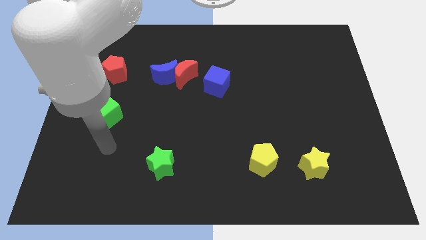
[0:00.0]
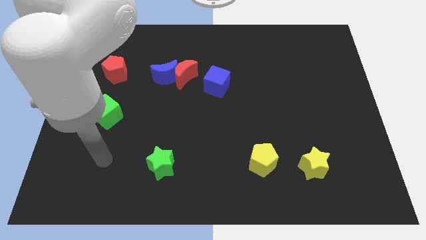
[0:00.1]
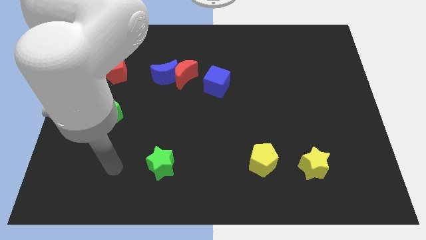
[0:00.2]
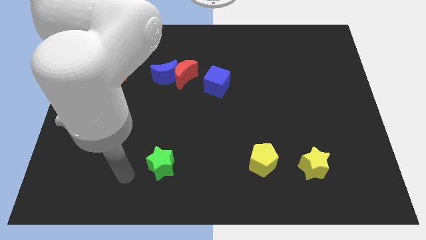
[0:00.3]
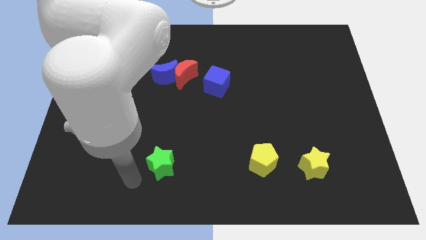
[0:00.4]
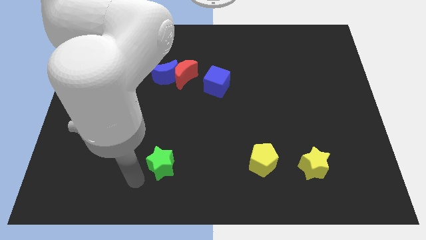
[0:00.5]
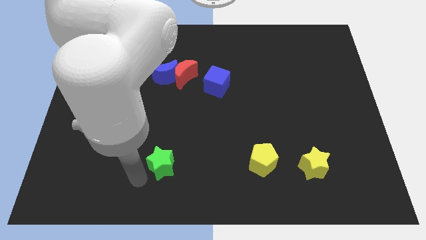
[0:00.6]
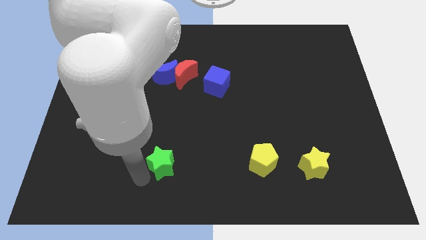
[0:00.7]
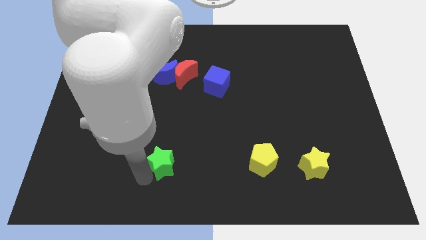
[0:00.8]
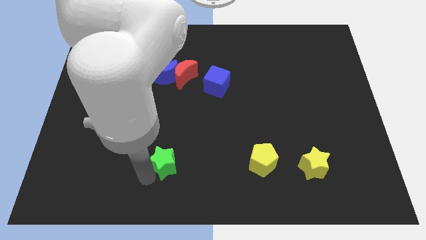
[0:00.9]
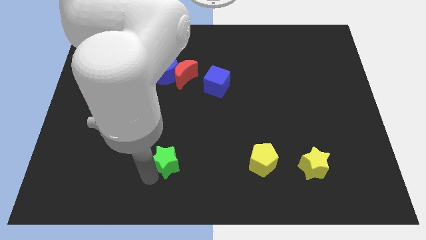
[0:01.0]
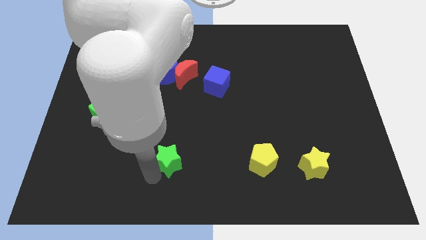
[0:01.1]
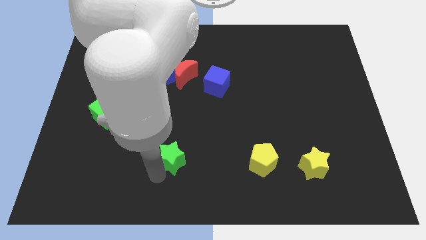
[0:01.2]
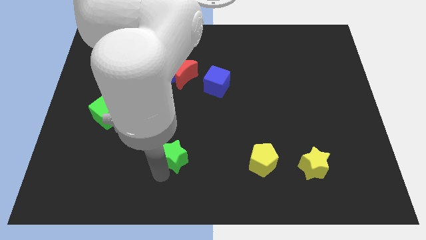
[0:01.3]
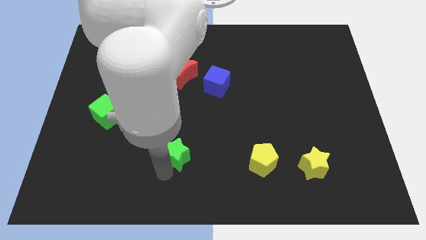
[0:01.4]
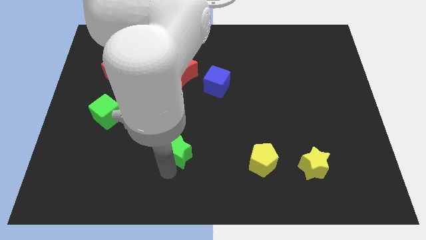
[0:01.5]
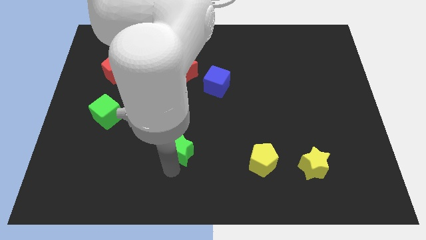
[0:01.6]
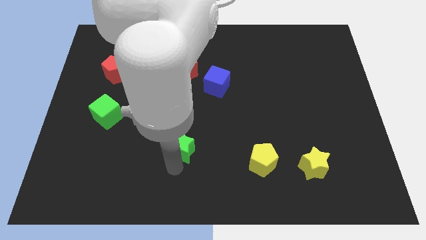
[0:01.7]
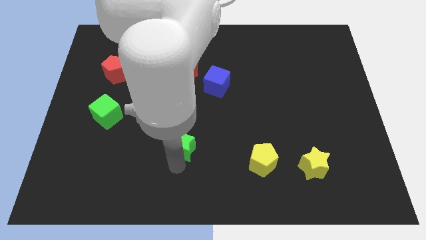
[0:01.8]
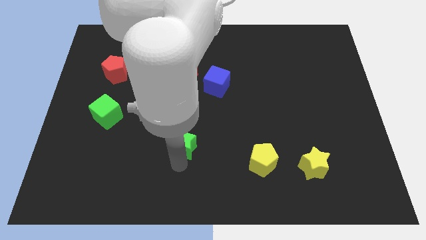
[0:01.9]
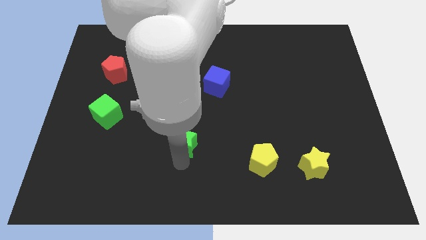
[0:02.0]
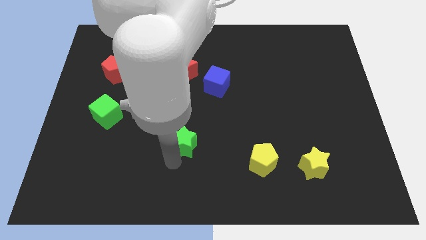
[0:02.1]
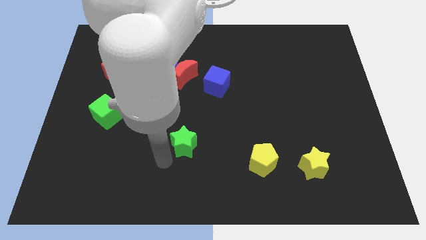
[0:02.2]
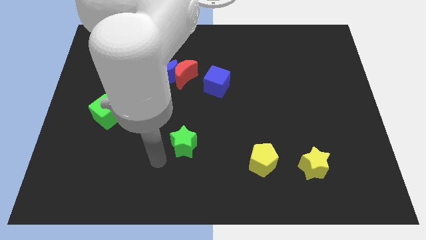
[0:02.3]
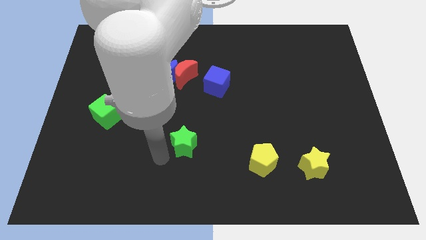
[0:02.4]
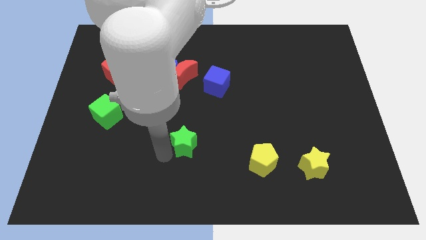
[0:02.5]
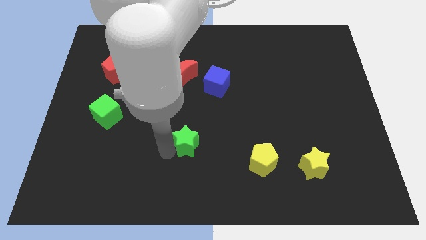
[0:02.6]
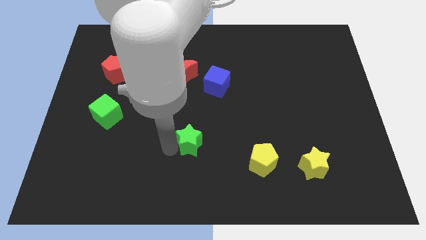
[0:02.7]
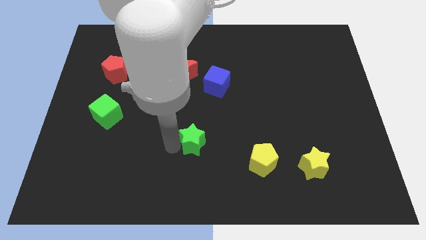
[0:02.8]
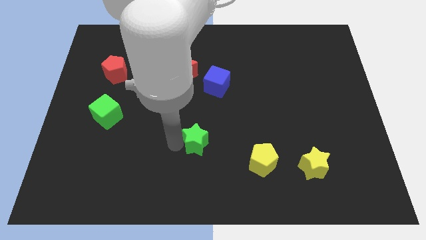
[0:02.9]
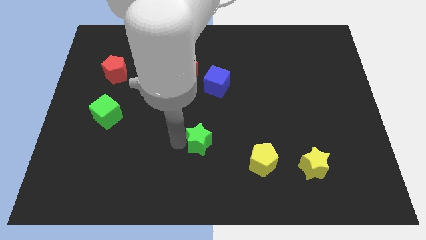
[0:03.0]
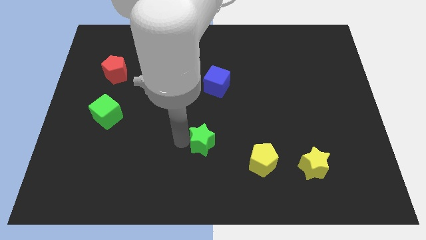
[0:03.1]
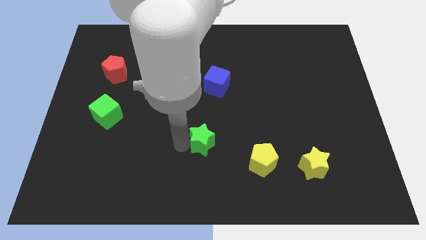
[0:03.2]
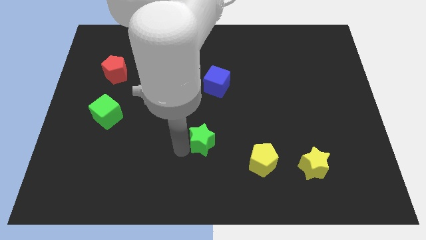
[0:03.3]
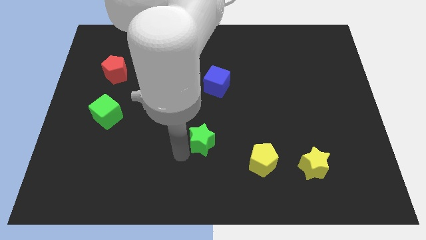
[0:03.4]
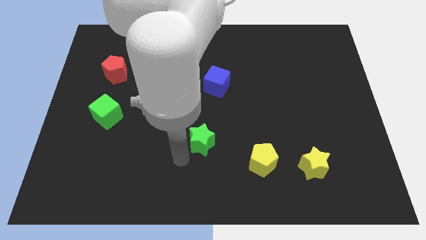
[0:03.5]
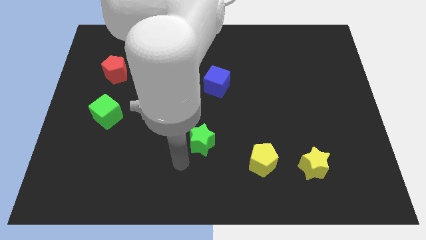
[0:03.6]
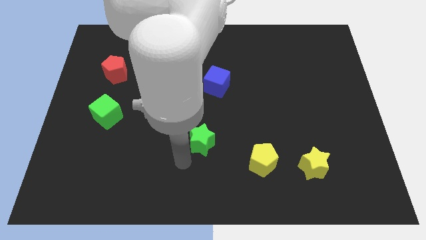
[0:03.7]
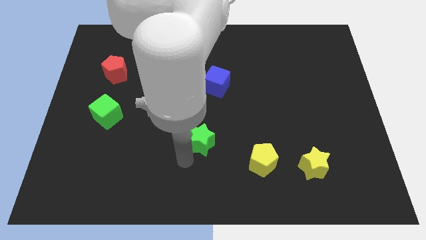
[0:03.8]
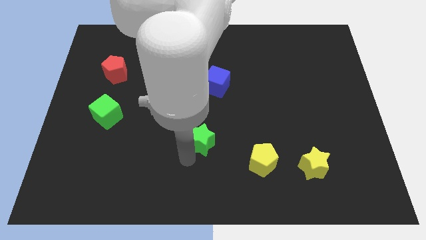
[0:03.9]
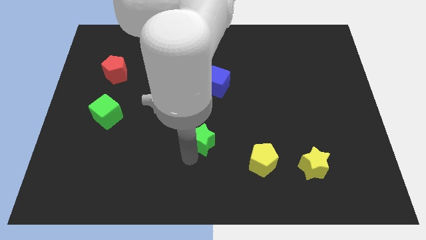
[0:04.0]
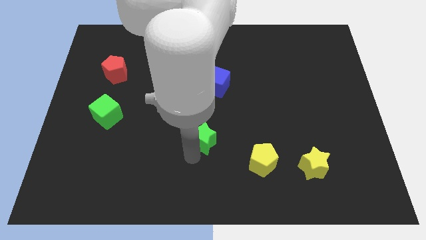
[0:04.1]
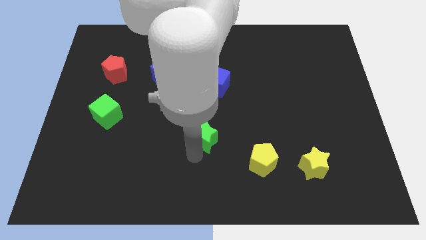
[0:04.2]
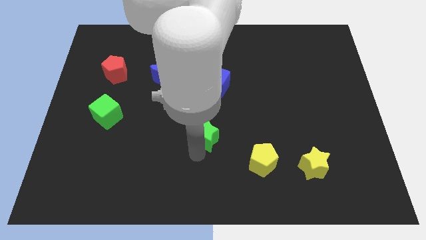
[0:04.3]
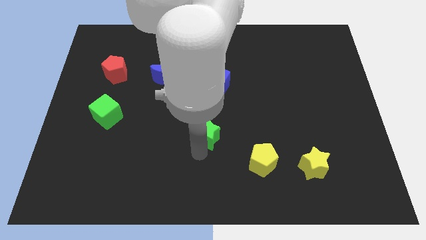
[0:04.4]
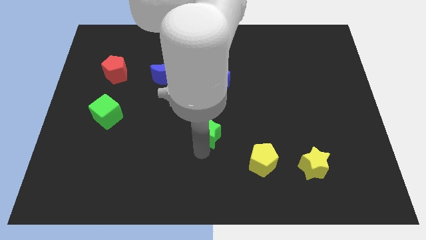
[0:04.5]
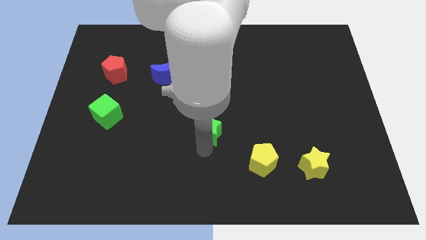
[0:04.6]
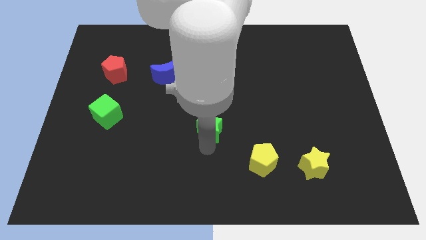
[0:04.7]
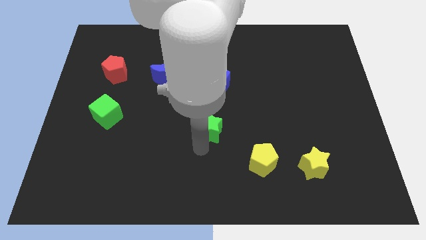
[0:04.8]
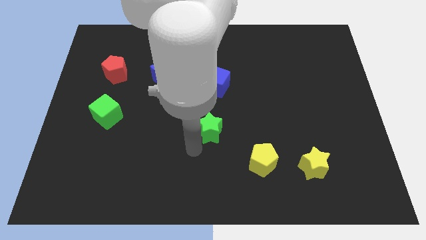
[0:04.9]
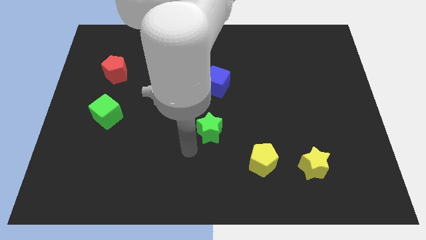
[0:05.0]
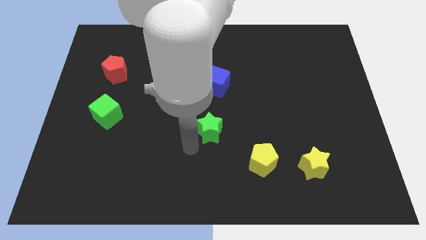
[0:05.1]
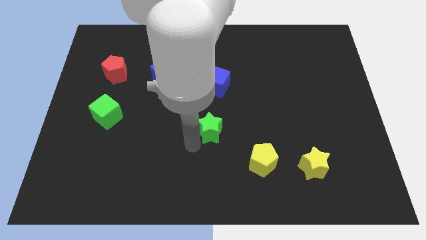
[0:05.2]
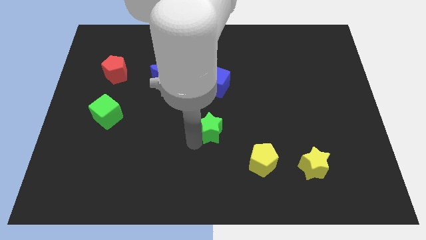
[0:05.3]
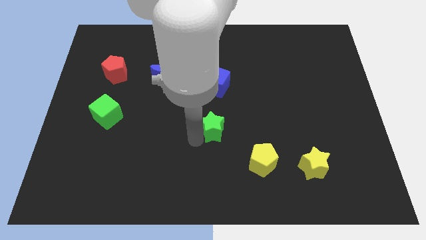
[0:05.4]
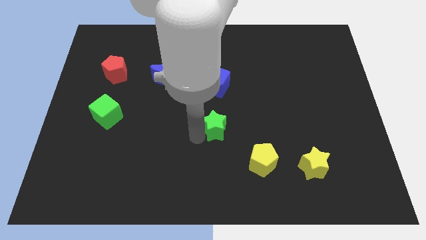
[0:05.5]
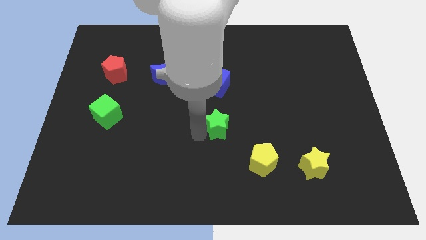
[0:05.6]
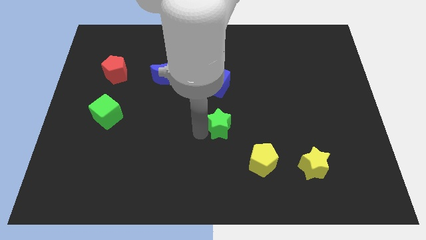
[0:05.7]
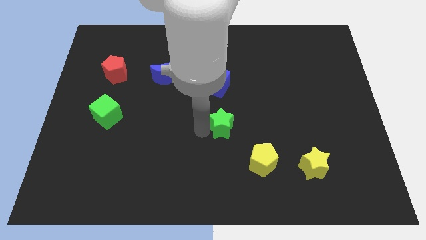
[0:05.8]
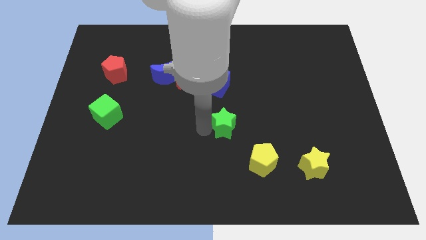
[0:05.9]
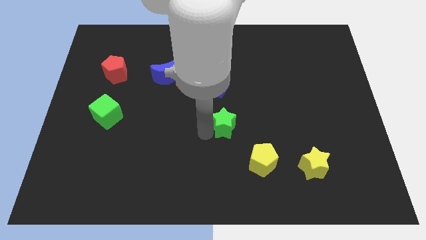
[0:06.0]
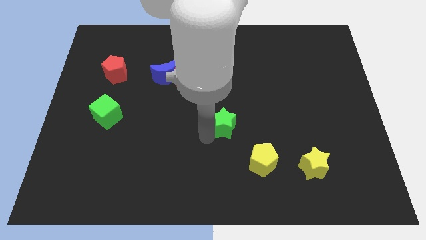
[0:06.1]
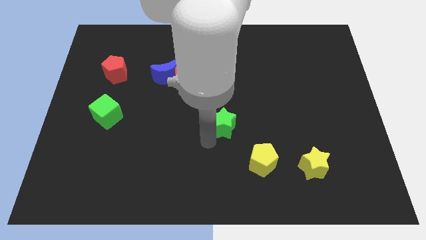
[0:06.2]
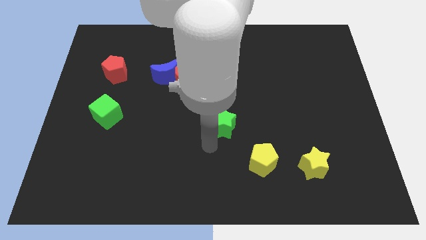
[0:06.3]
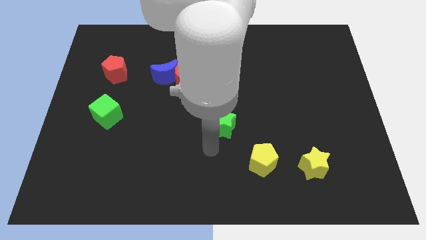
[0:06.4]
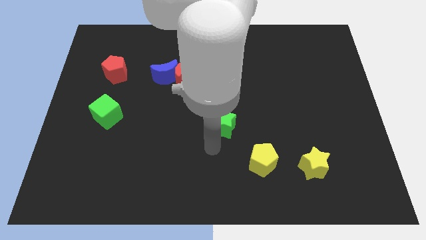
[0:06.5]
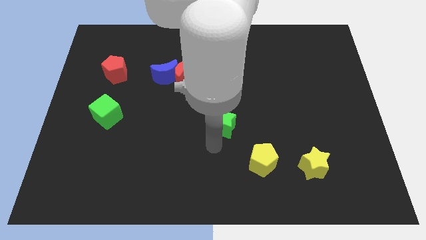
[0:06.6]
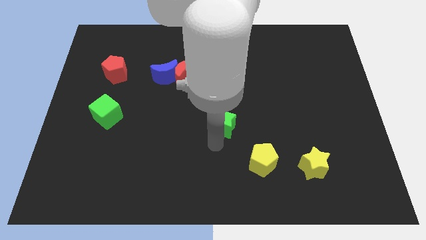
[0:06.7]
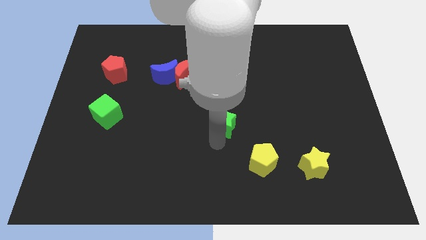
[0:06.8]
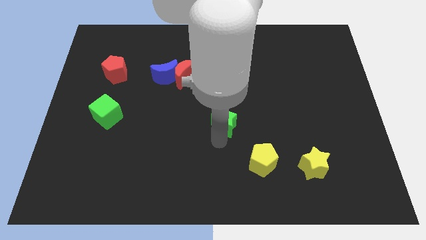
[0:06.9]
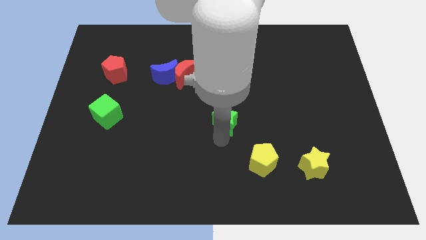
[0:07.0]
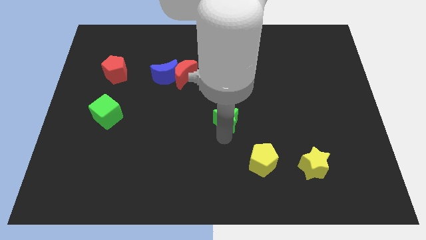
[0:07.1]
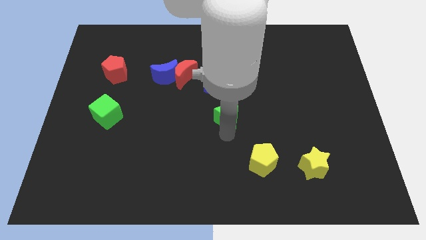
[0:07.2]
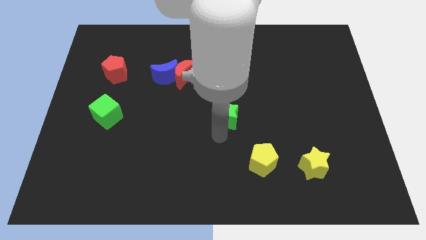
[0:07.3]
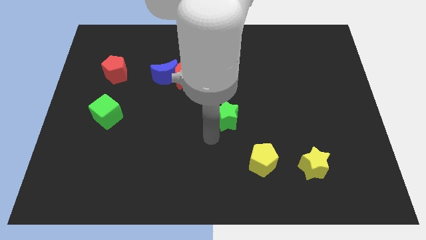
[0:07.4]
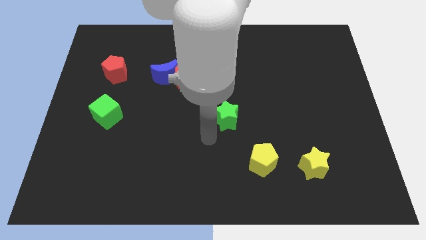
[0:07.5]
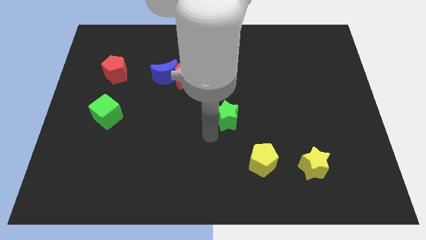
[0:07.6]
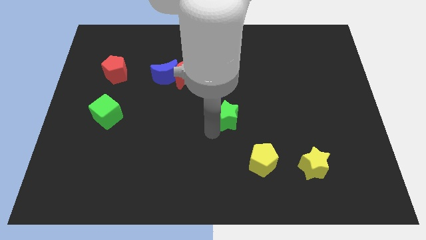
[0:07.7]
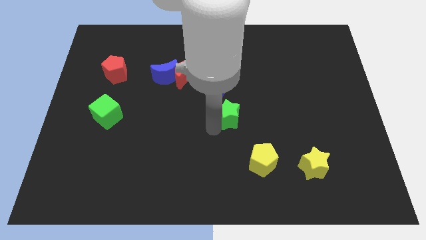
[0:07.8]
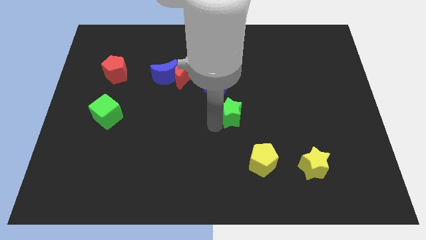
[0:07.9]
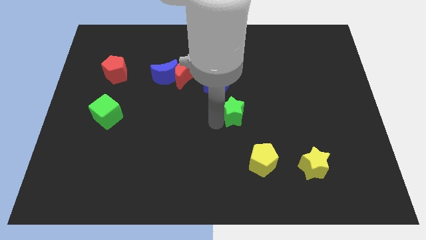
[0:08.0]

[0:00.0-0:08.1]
move the green star upwards and right

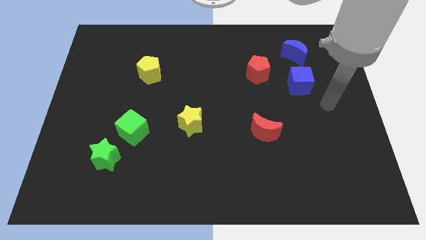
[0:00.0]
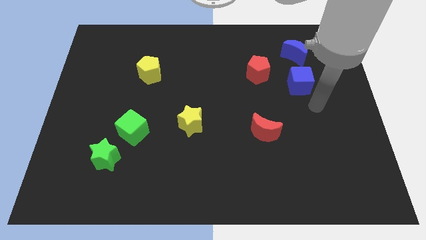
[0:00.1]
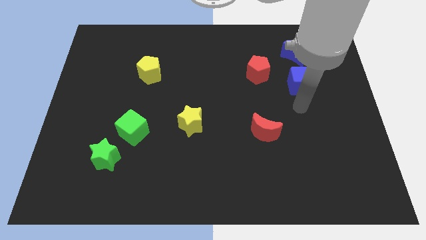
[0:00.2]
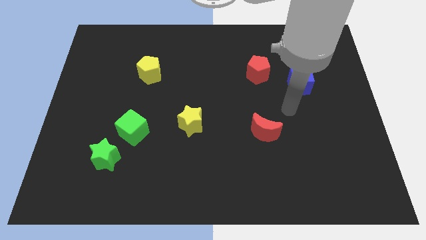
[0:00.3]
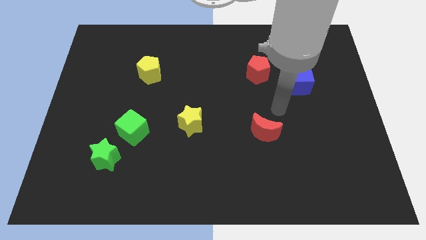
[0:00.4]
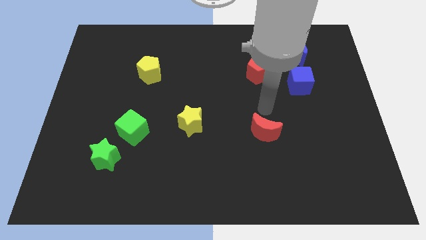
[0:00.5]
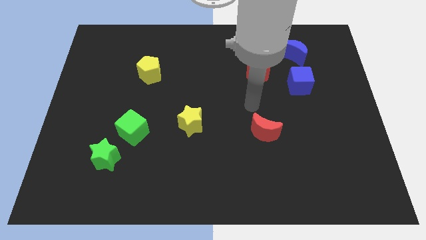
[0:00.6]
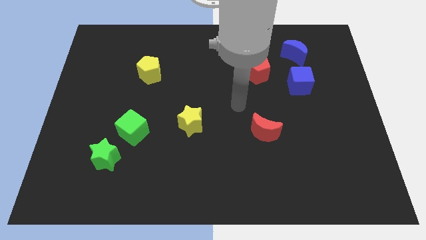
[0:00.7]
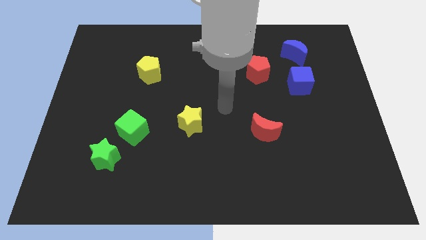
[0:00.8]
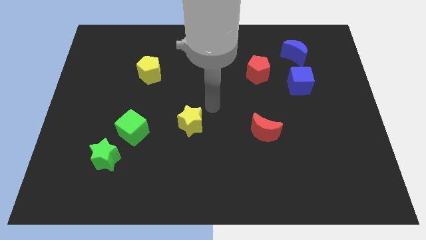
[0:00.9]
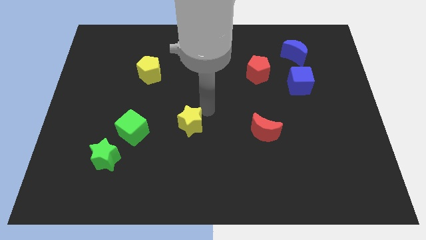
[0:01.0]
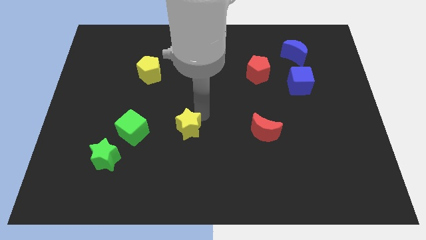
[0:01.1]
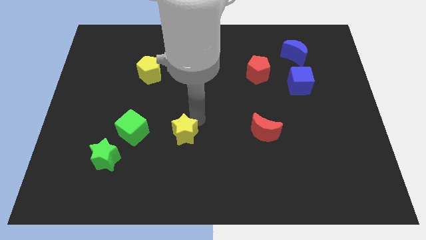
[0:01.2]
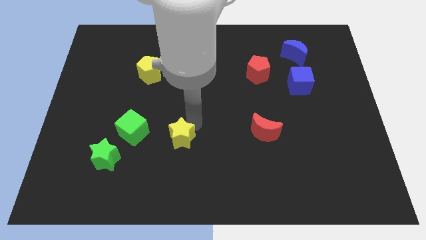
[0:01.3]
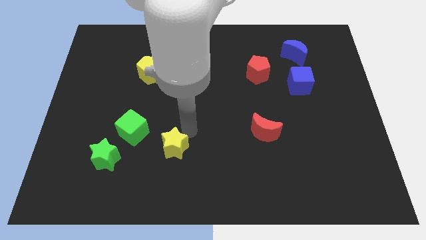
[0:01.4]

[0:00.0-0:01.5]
slide the yellow star diagonally downwards and to the left somewhat
